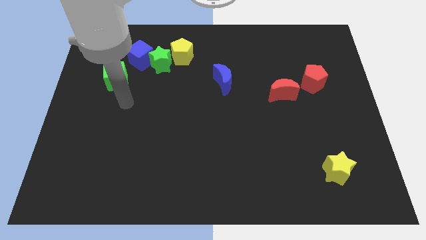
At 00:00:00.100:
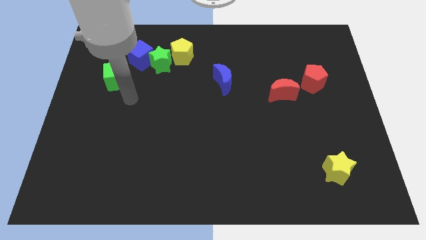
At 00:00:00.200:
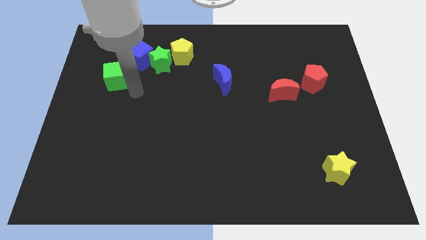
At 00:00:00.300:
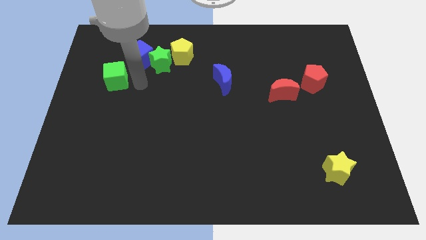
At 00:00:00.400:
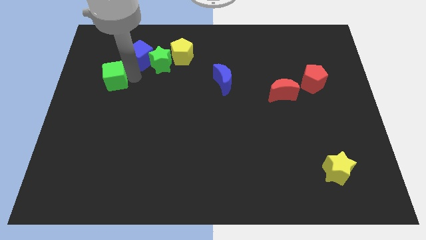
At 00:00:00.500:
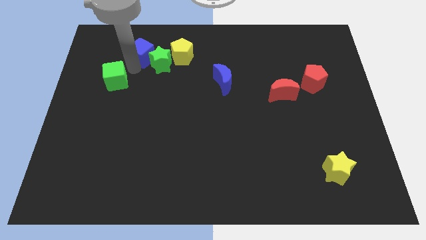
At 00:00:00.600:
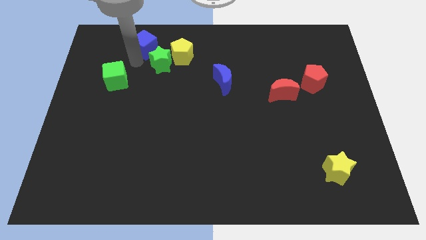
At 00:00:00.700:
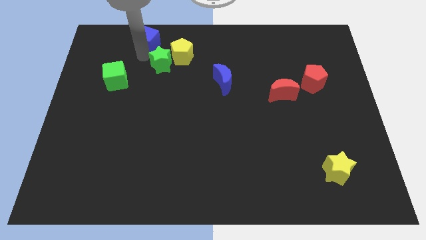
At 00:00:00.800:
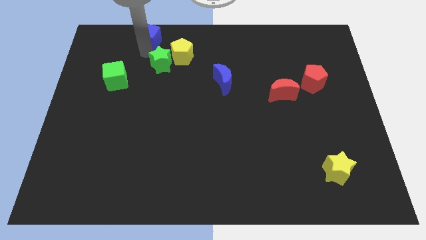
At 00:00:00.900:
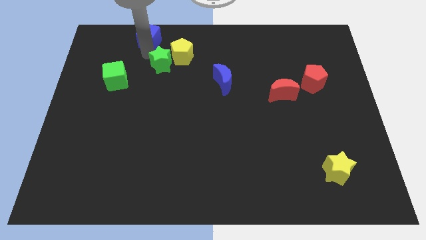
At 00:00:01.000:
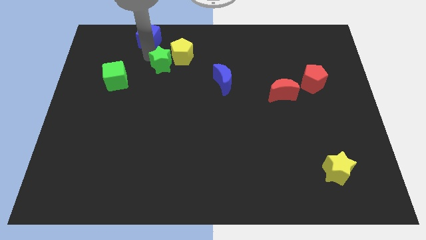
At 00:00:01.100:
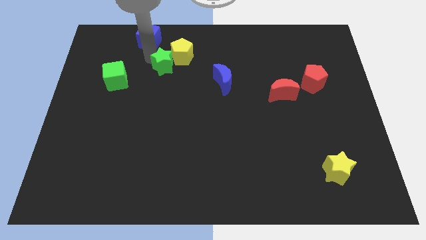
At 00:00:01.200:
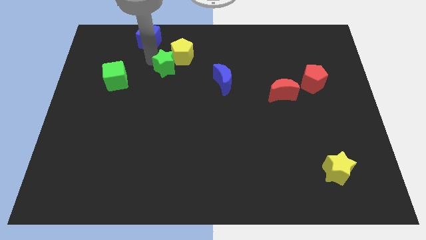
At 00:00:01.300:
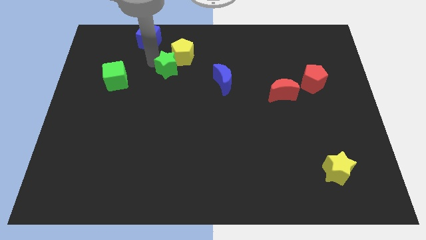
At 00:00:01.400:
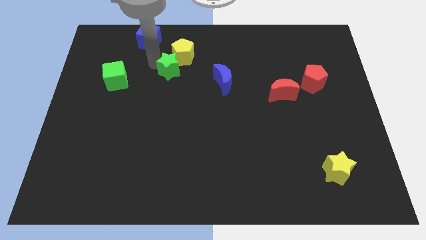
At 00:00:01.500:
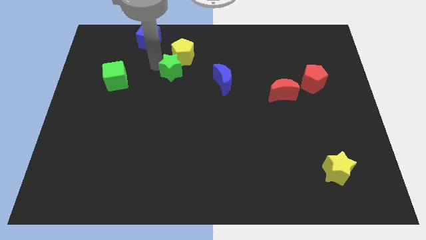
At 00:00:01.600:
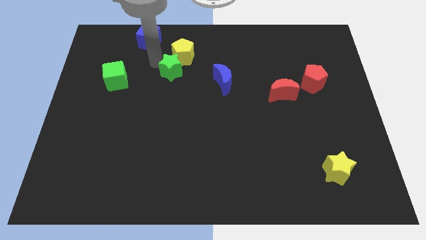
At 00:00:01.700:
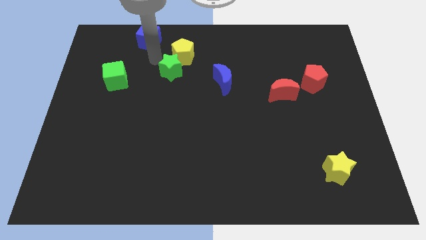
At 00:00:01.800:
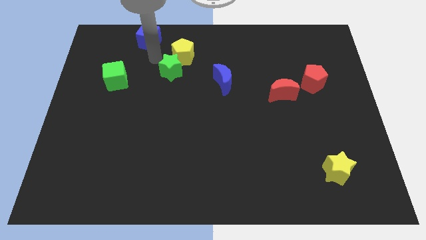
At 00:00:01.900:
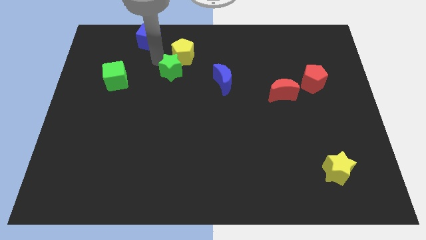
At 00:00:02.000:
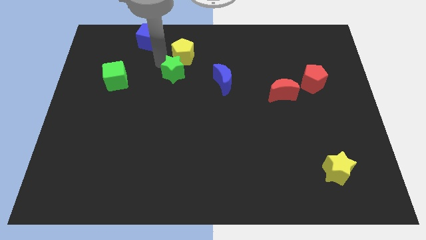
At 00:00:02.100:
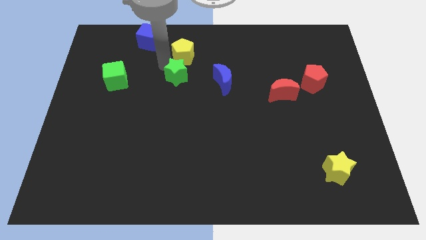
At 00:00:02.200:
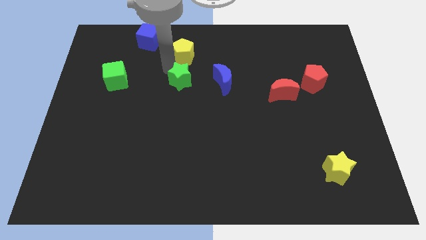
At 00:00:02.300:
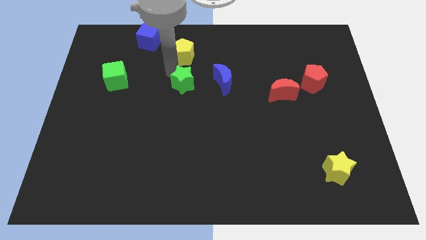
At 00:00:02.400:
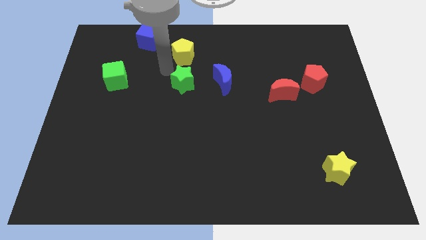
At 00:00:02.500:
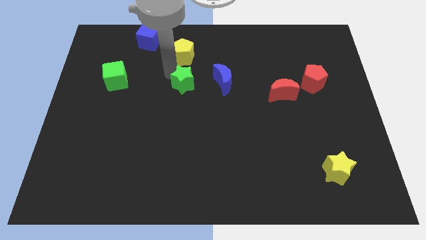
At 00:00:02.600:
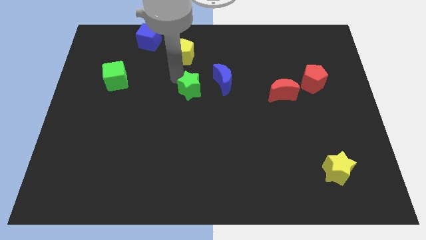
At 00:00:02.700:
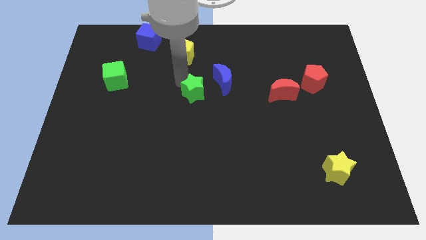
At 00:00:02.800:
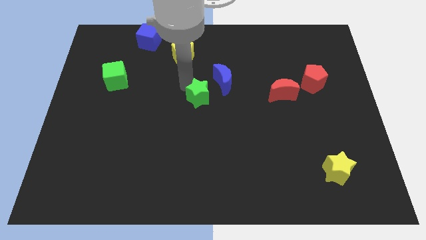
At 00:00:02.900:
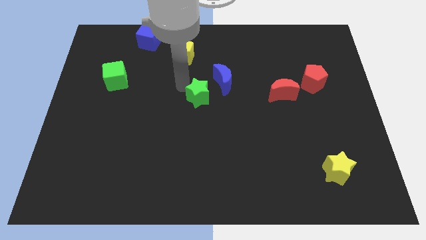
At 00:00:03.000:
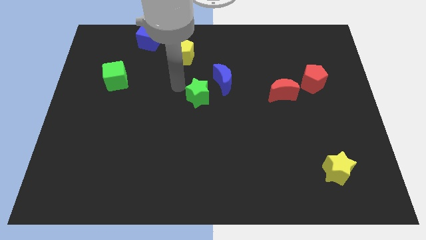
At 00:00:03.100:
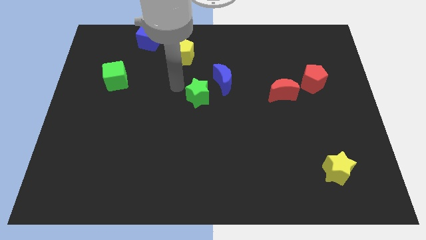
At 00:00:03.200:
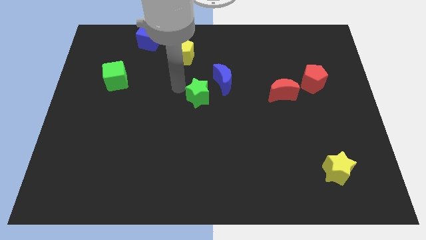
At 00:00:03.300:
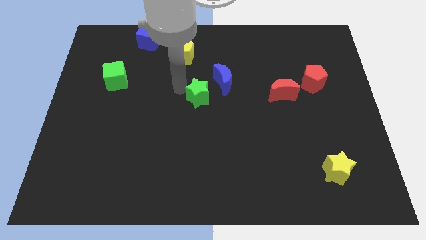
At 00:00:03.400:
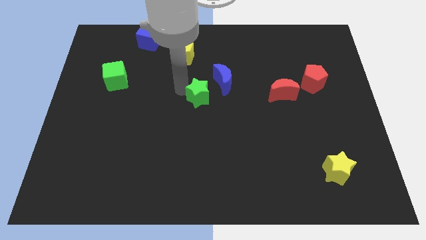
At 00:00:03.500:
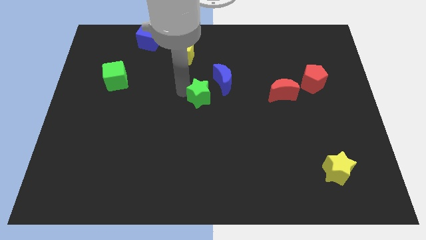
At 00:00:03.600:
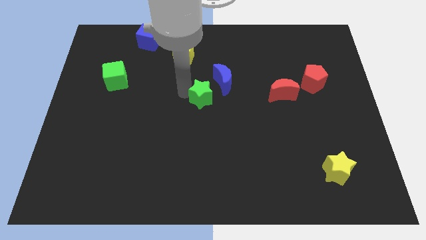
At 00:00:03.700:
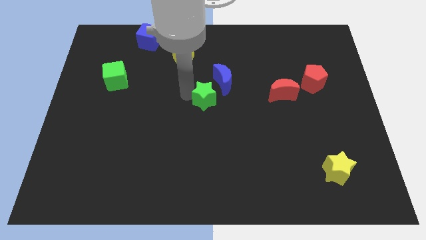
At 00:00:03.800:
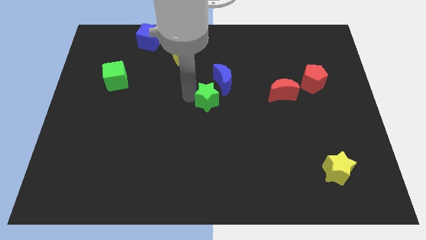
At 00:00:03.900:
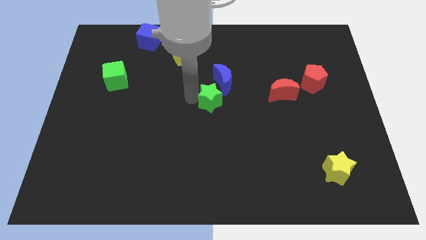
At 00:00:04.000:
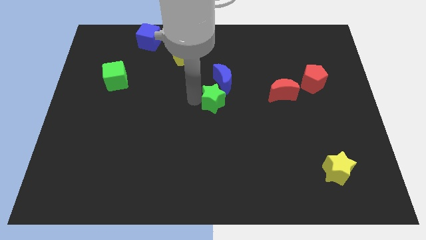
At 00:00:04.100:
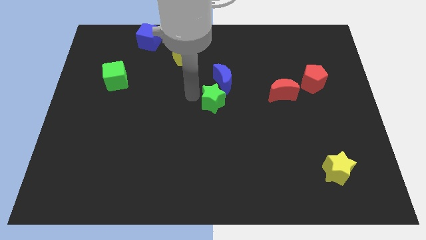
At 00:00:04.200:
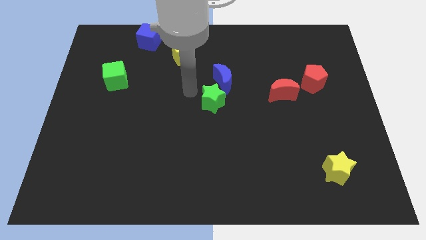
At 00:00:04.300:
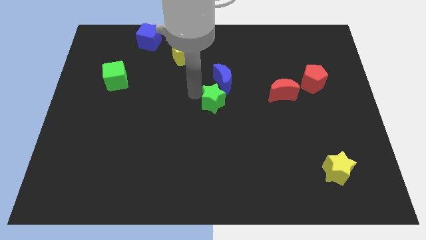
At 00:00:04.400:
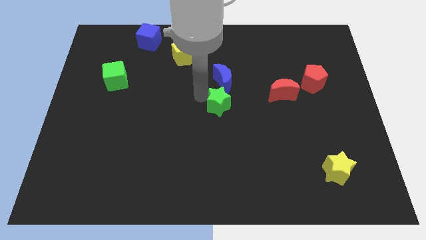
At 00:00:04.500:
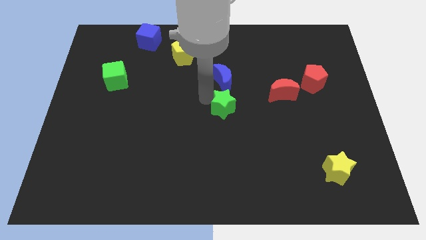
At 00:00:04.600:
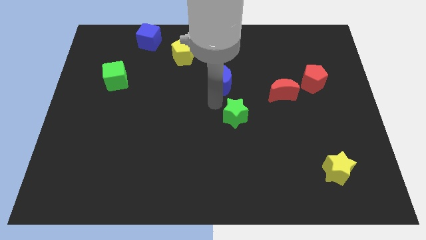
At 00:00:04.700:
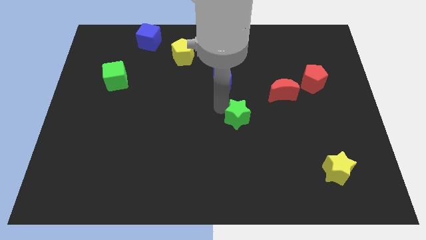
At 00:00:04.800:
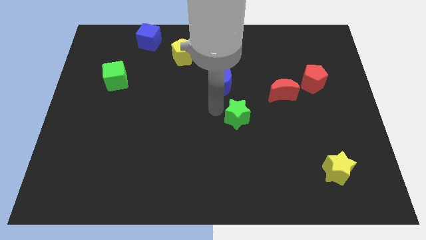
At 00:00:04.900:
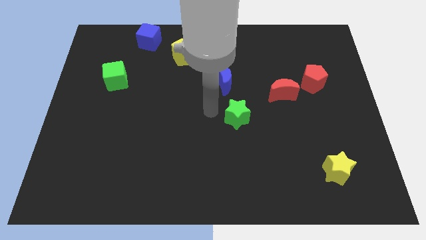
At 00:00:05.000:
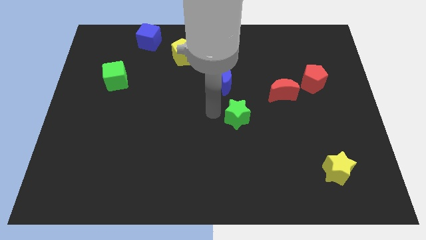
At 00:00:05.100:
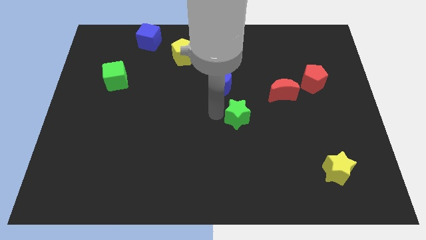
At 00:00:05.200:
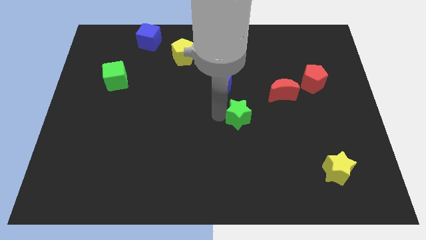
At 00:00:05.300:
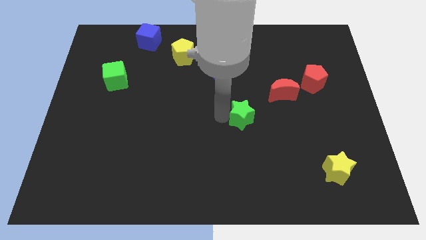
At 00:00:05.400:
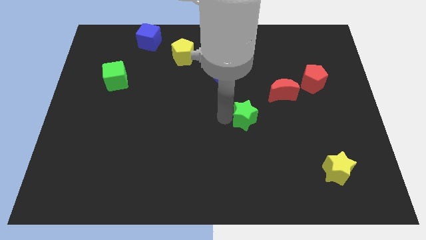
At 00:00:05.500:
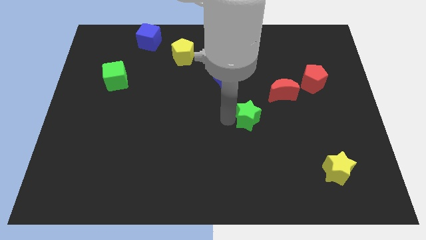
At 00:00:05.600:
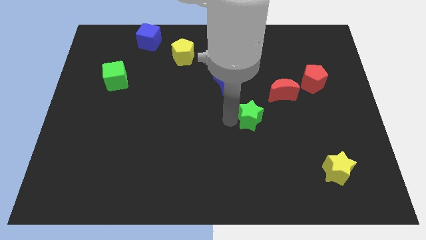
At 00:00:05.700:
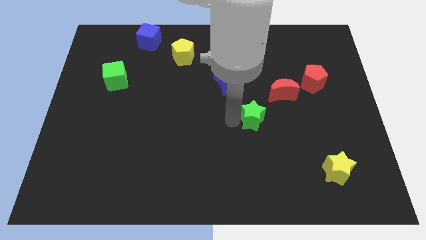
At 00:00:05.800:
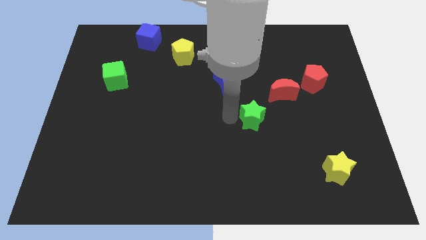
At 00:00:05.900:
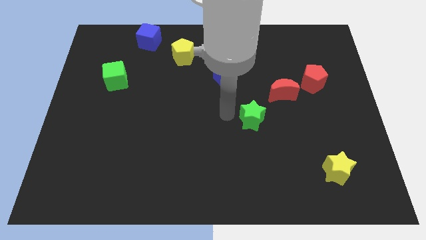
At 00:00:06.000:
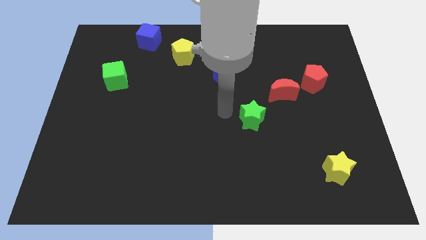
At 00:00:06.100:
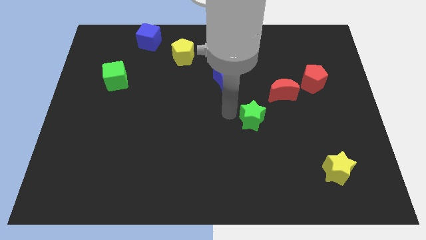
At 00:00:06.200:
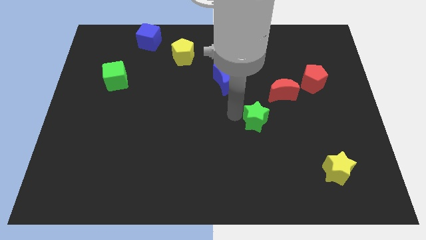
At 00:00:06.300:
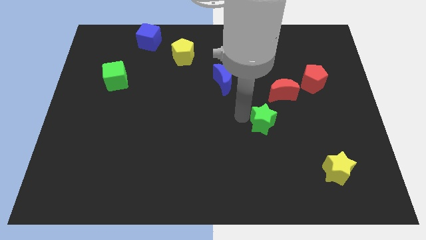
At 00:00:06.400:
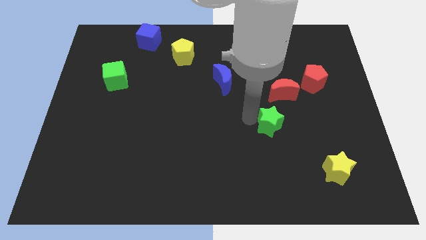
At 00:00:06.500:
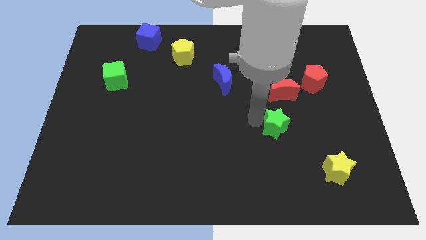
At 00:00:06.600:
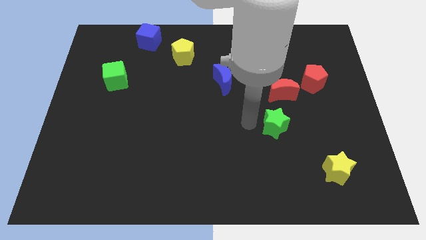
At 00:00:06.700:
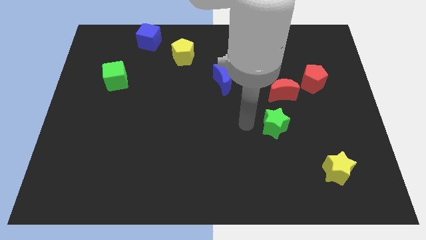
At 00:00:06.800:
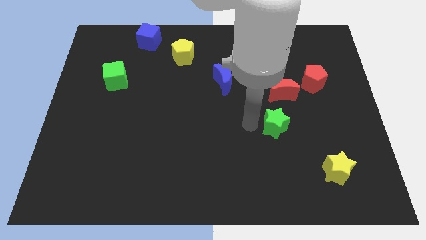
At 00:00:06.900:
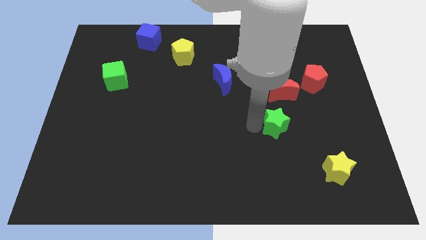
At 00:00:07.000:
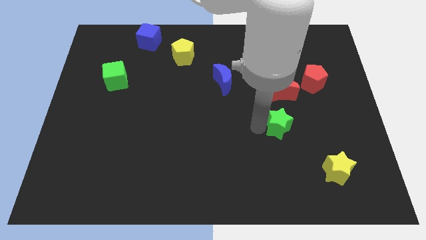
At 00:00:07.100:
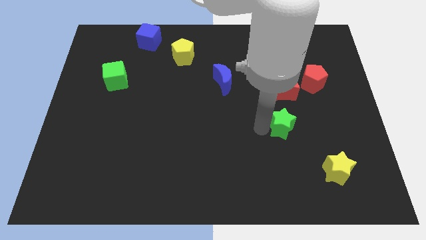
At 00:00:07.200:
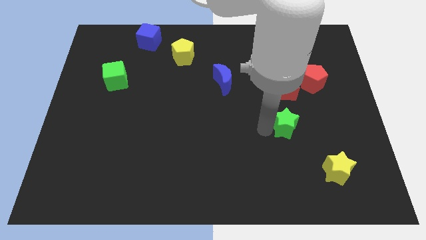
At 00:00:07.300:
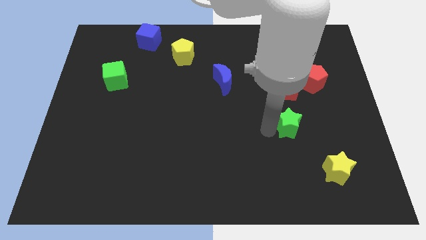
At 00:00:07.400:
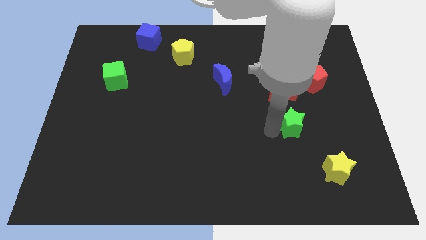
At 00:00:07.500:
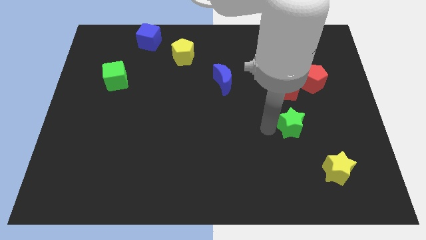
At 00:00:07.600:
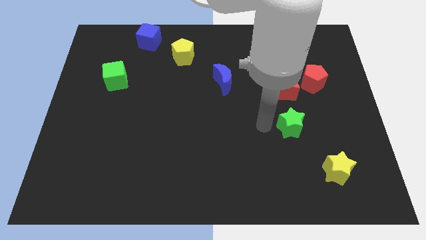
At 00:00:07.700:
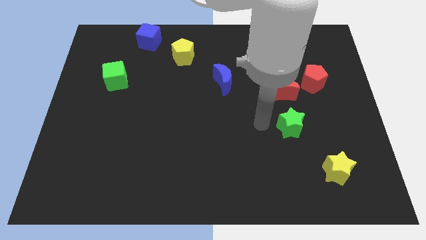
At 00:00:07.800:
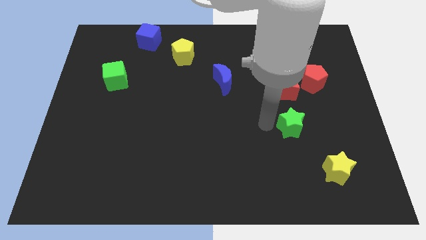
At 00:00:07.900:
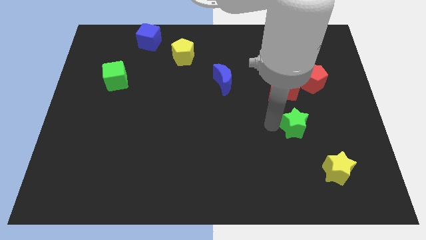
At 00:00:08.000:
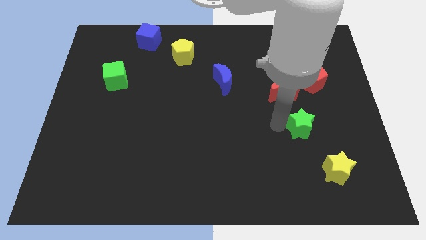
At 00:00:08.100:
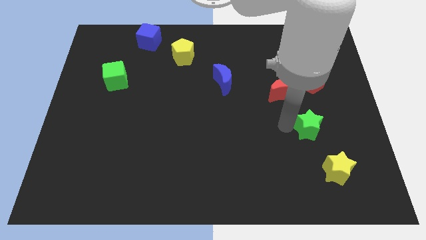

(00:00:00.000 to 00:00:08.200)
move the green star to the top of the yellow star

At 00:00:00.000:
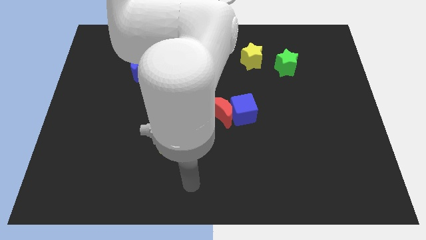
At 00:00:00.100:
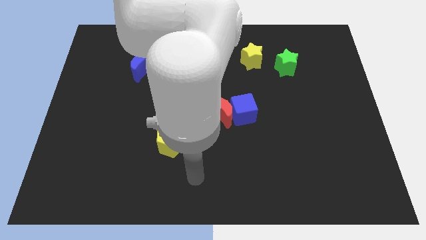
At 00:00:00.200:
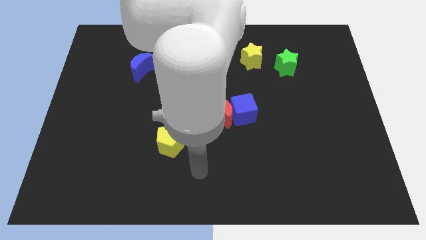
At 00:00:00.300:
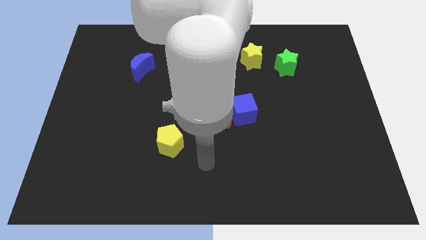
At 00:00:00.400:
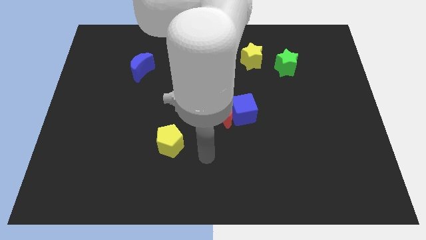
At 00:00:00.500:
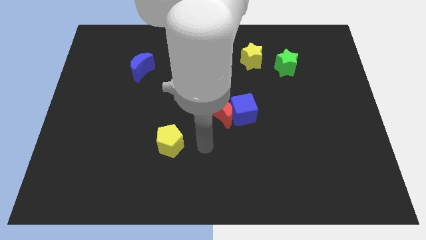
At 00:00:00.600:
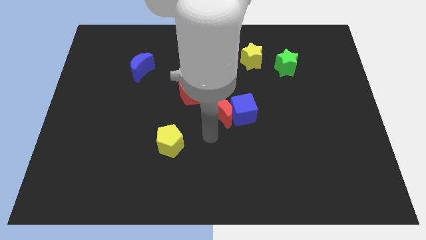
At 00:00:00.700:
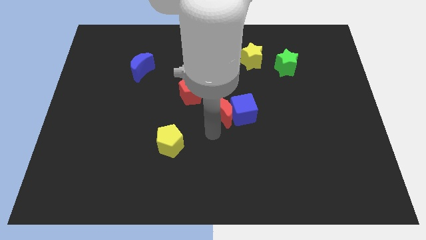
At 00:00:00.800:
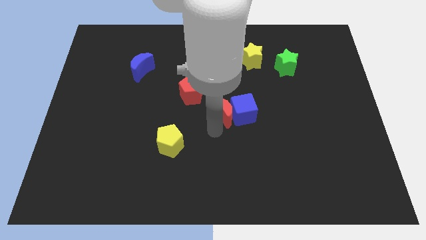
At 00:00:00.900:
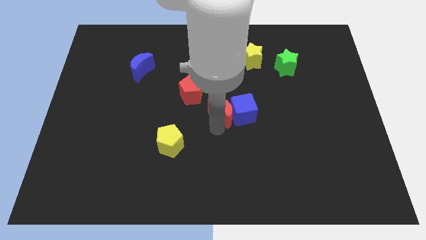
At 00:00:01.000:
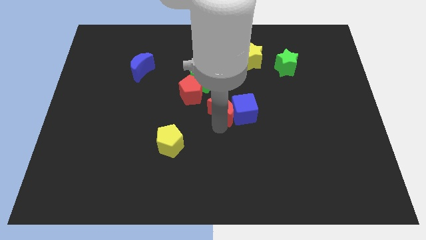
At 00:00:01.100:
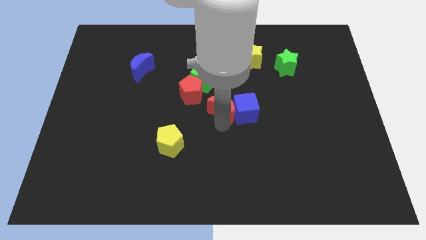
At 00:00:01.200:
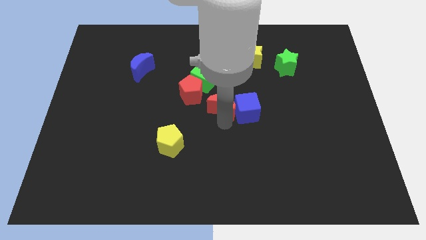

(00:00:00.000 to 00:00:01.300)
push the red moon to the right of the red pentagon
